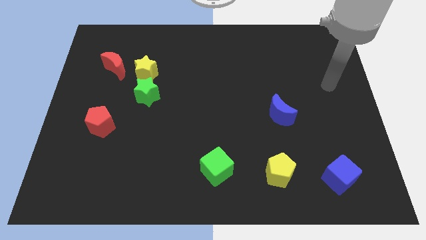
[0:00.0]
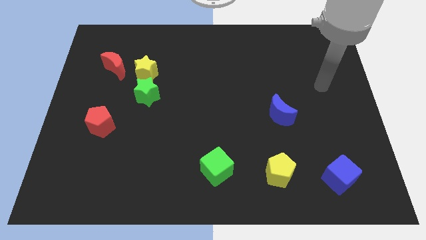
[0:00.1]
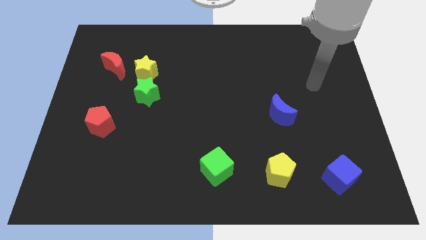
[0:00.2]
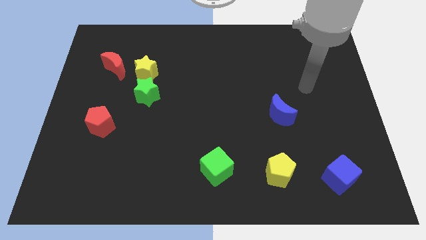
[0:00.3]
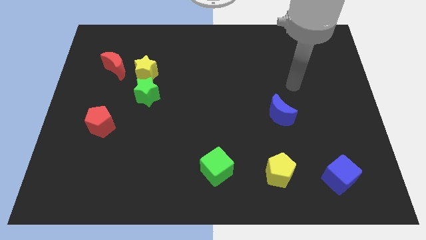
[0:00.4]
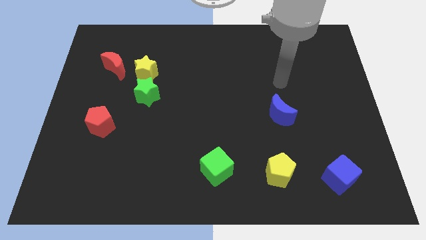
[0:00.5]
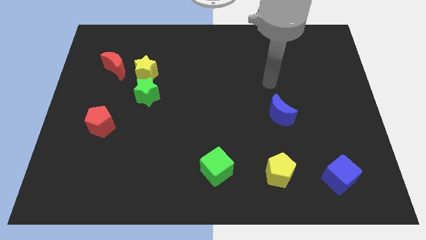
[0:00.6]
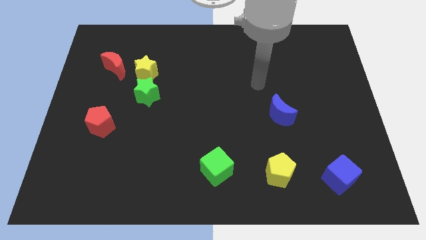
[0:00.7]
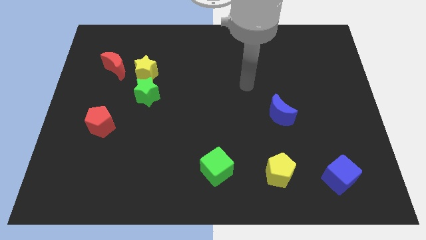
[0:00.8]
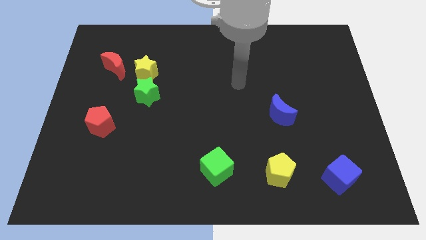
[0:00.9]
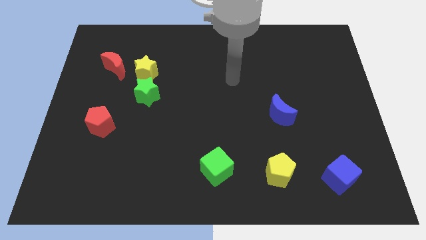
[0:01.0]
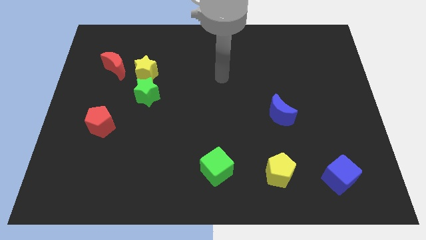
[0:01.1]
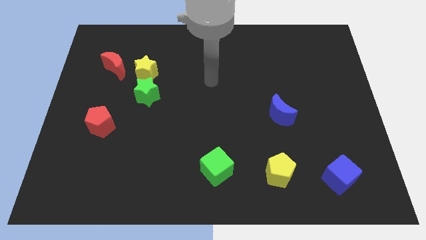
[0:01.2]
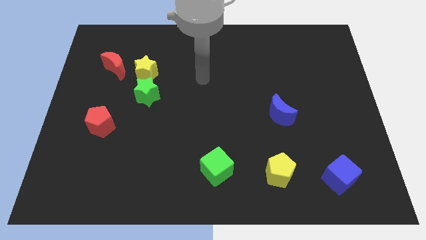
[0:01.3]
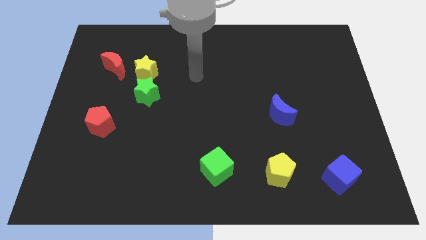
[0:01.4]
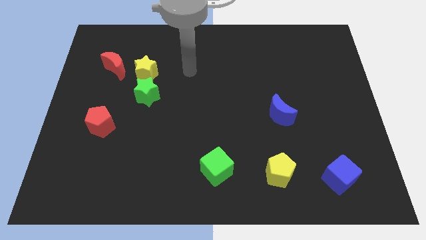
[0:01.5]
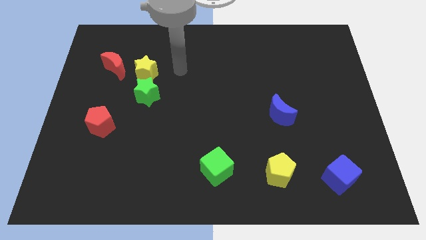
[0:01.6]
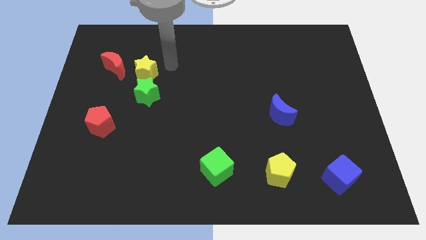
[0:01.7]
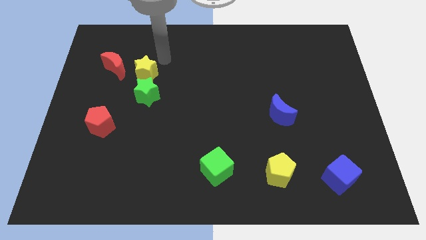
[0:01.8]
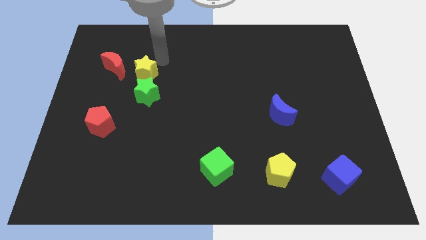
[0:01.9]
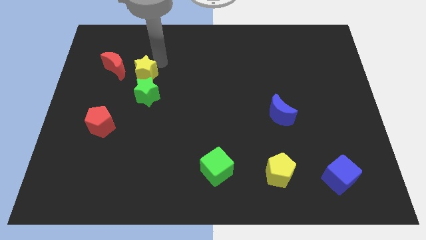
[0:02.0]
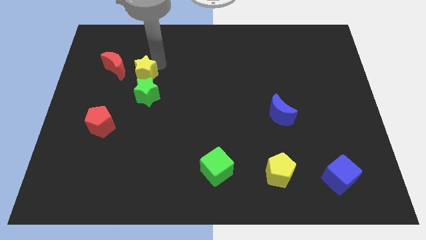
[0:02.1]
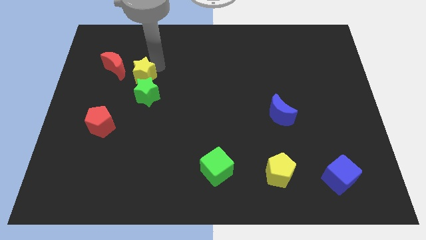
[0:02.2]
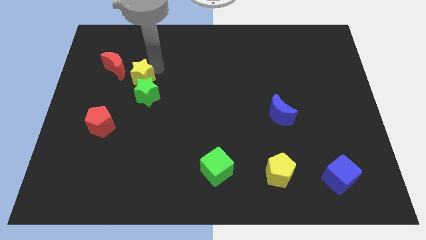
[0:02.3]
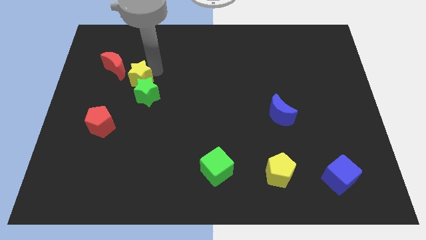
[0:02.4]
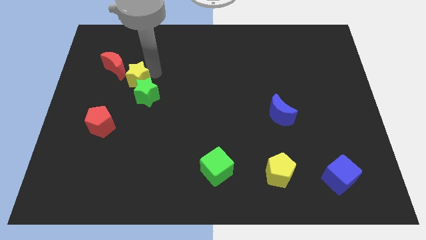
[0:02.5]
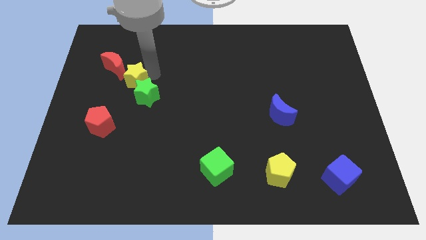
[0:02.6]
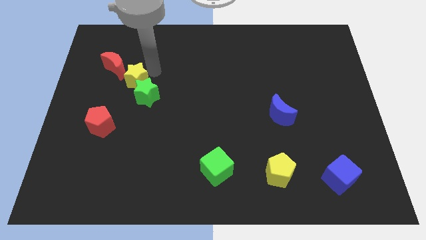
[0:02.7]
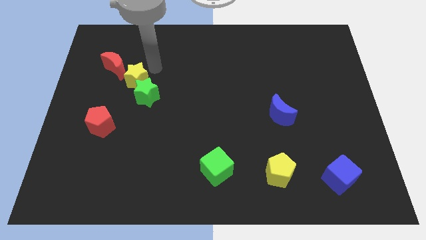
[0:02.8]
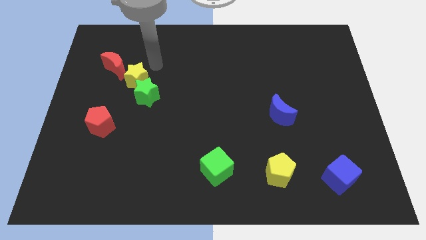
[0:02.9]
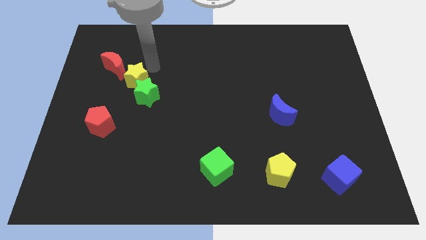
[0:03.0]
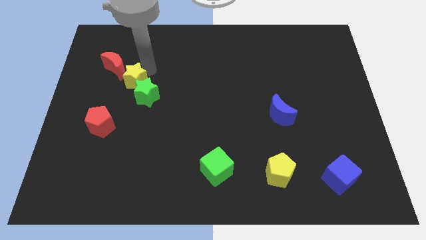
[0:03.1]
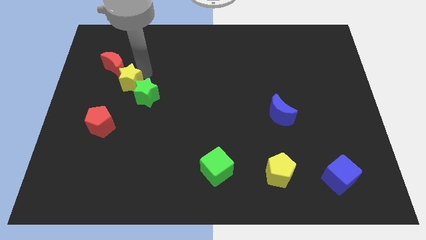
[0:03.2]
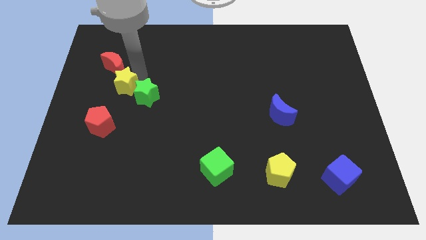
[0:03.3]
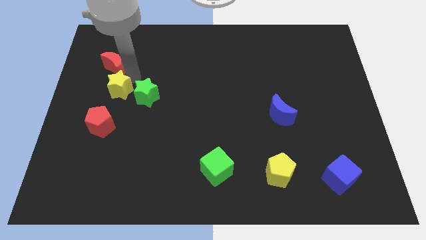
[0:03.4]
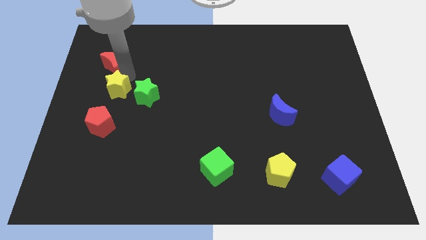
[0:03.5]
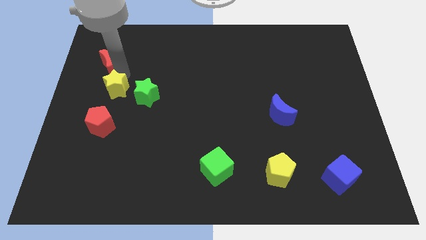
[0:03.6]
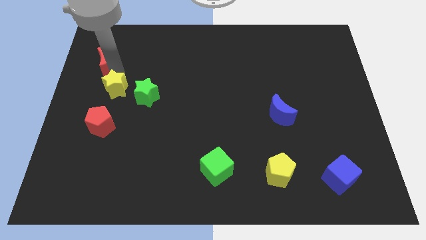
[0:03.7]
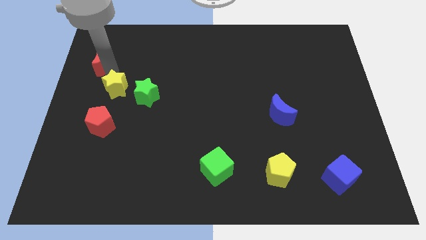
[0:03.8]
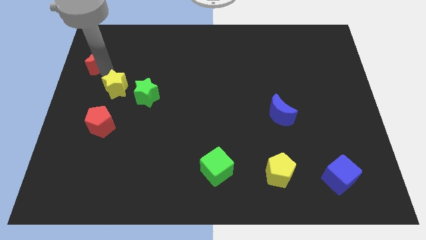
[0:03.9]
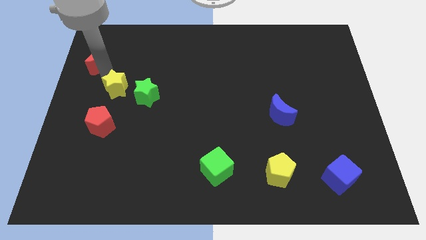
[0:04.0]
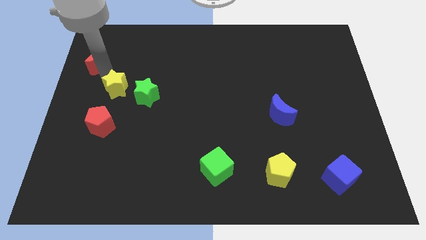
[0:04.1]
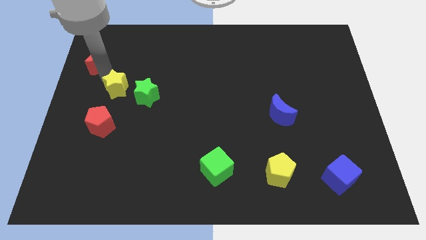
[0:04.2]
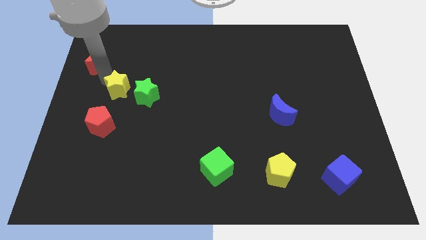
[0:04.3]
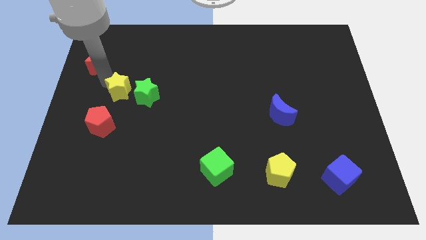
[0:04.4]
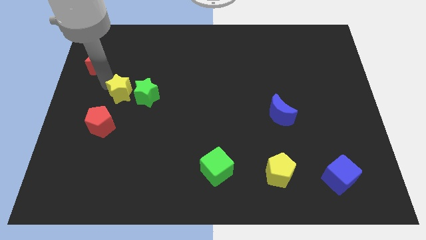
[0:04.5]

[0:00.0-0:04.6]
slide the yellow star to the top right side of the red pentagon
